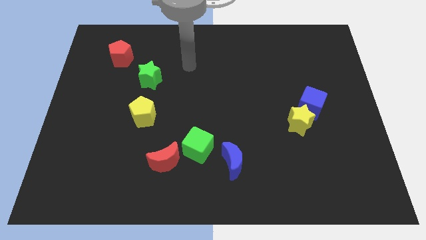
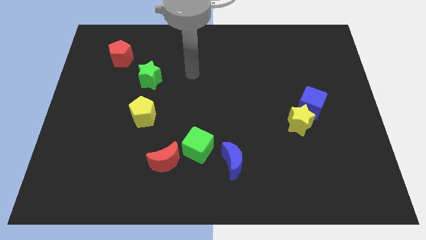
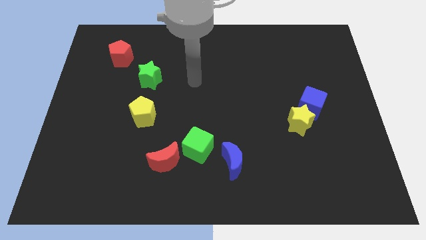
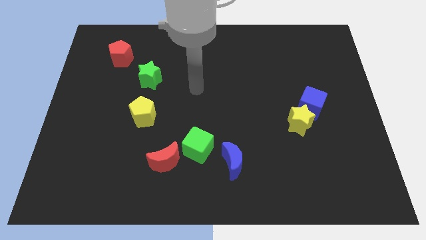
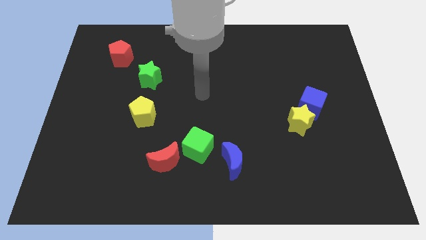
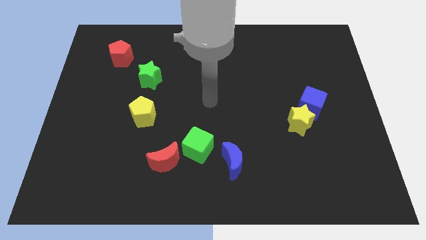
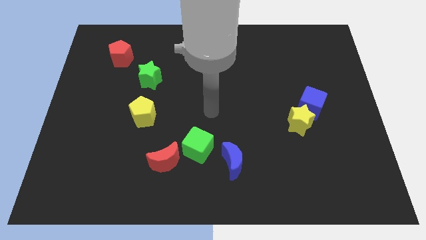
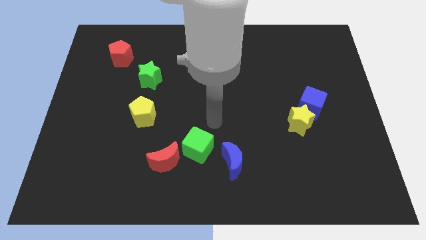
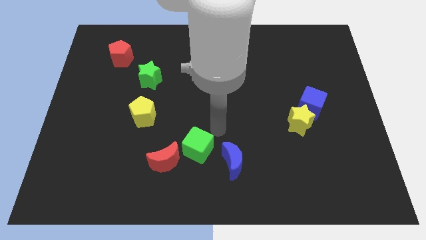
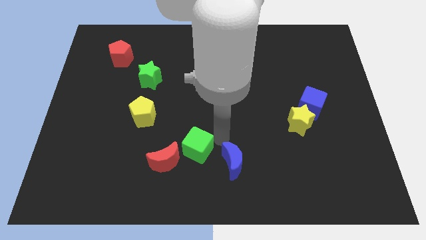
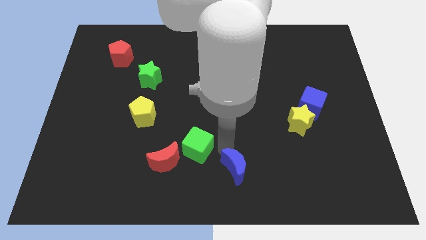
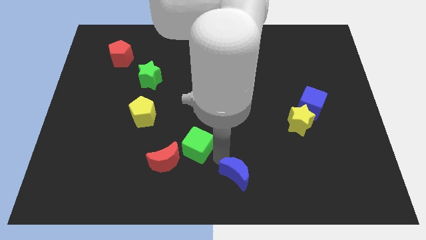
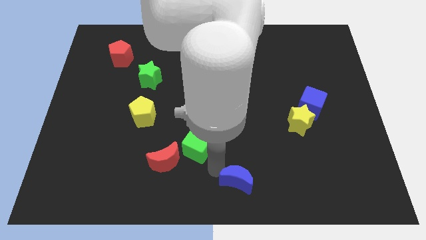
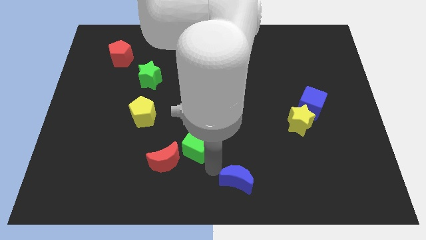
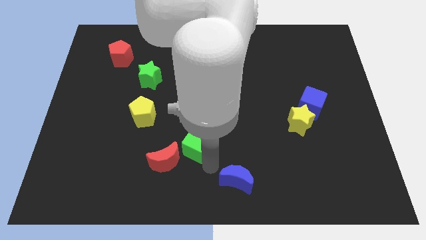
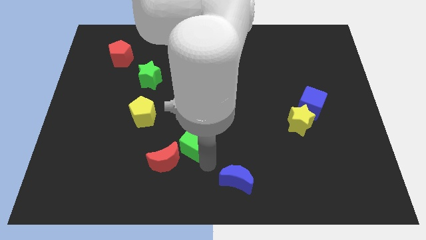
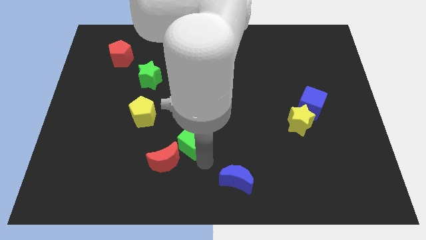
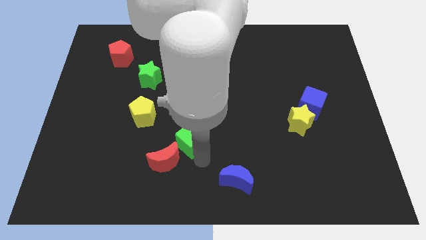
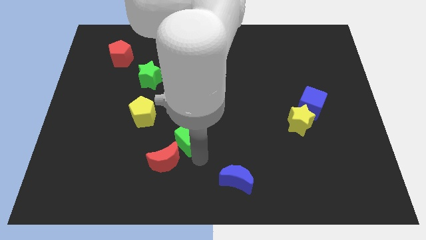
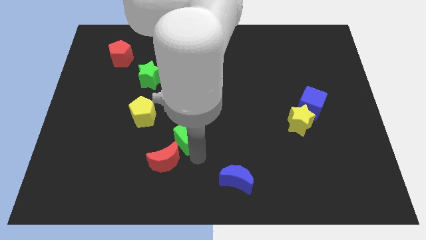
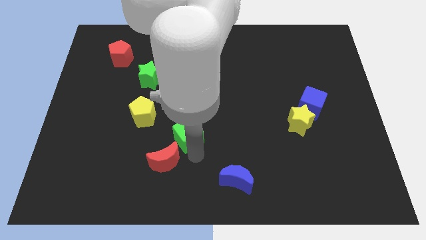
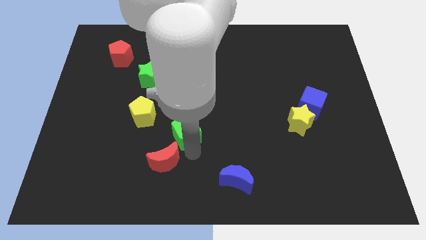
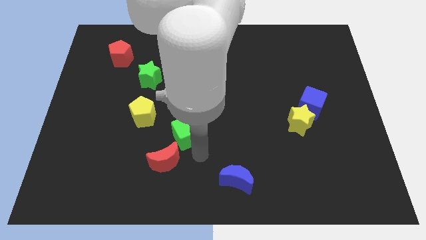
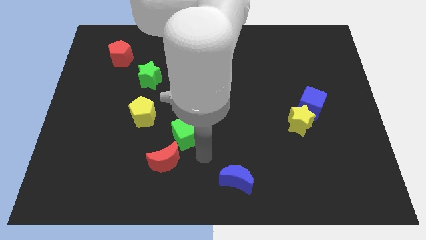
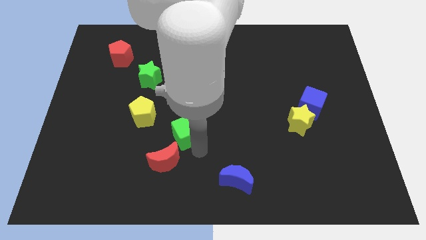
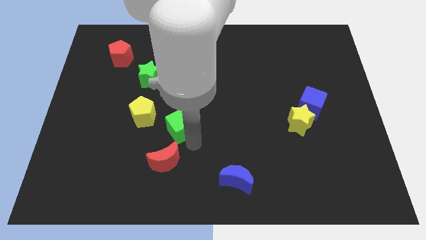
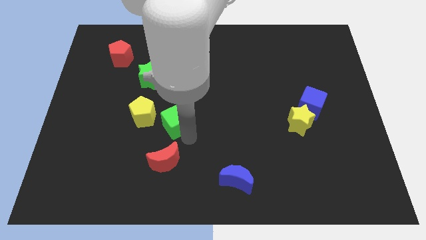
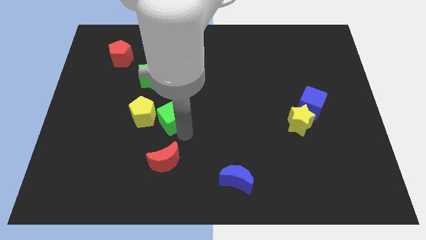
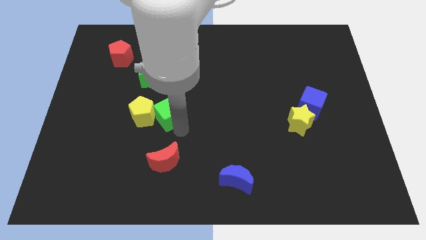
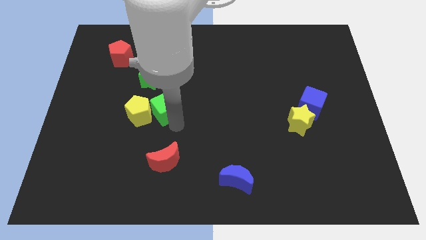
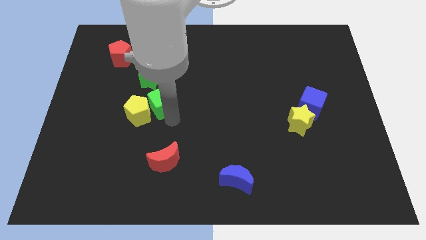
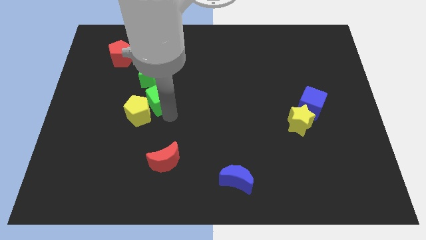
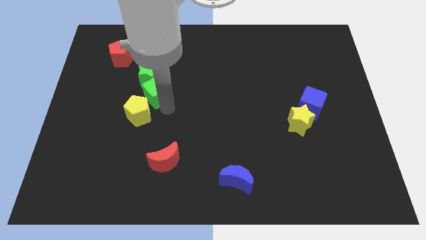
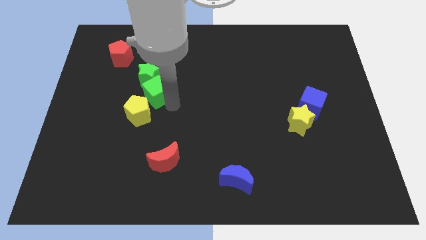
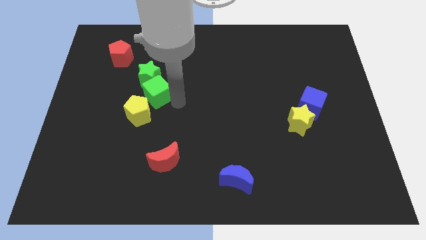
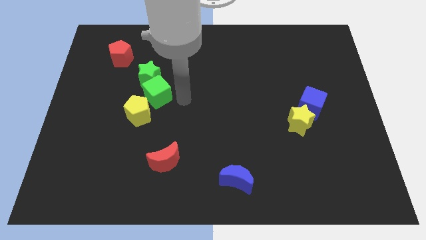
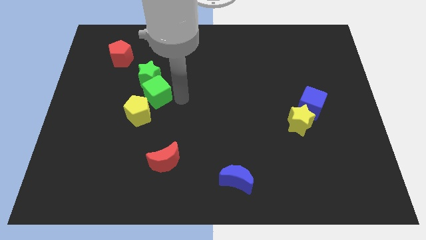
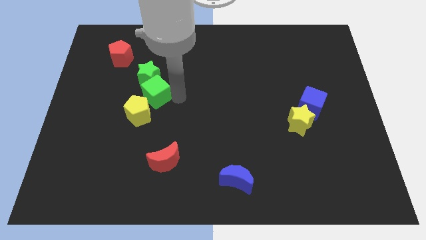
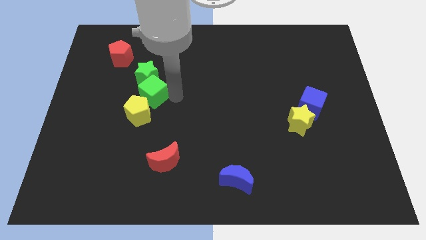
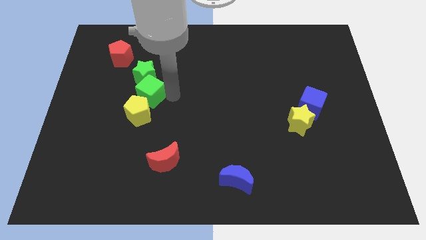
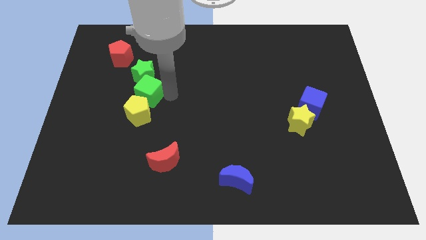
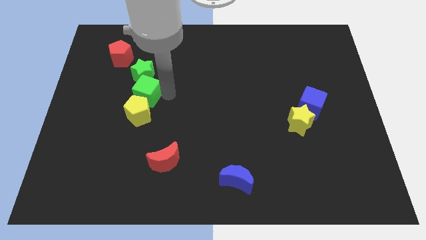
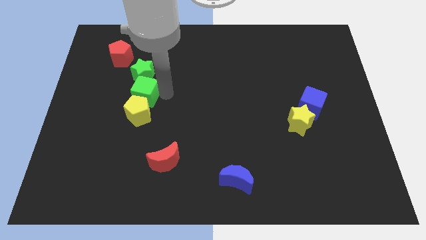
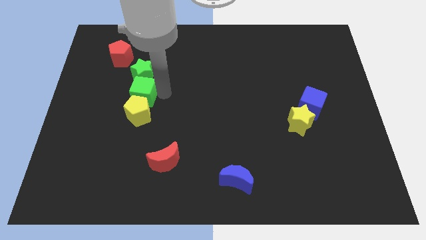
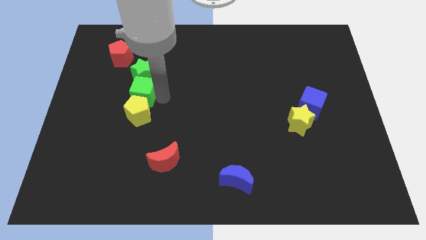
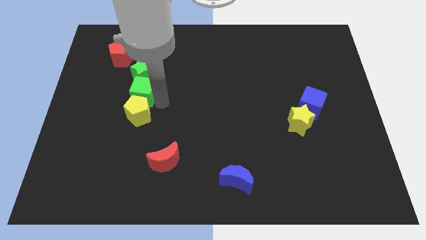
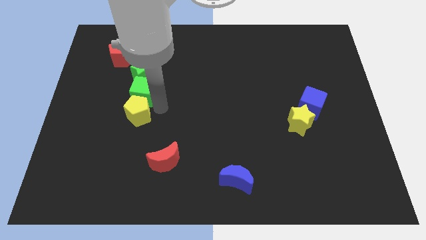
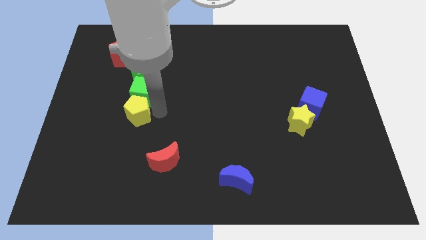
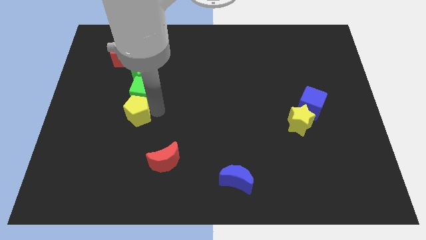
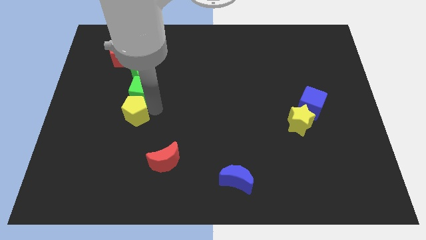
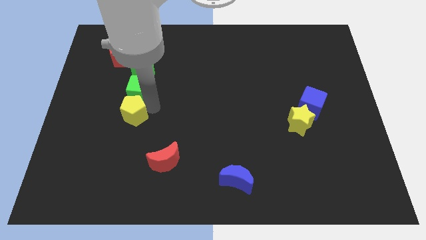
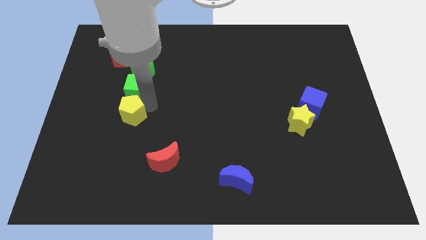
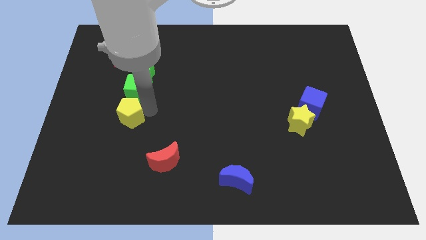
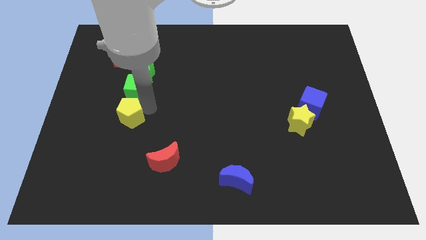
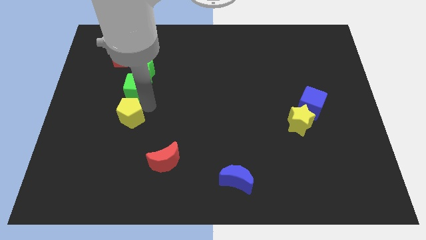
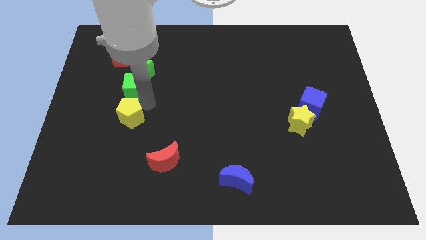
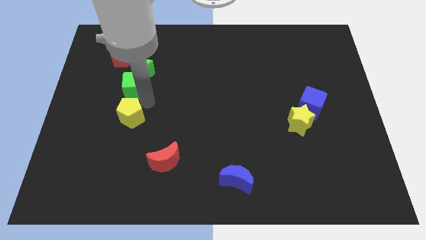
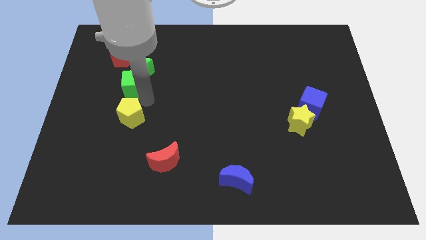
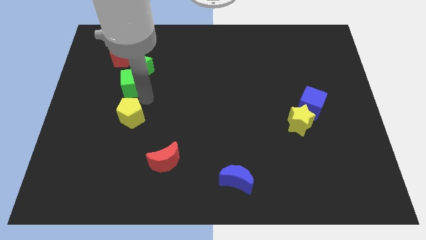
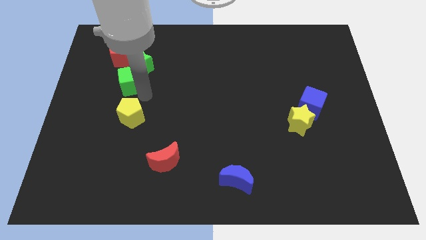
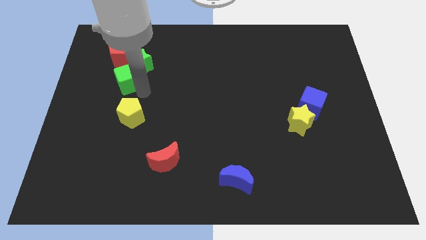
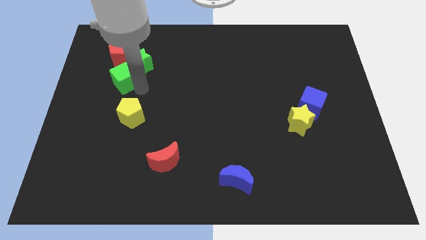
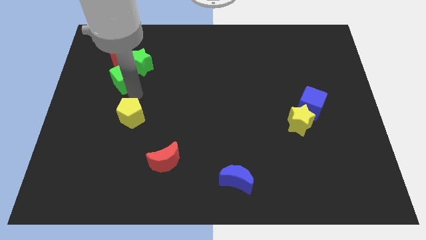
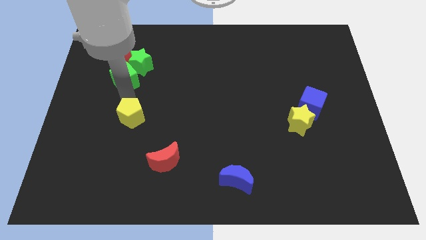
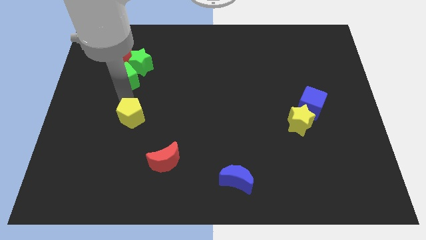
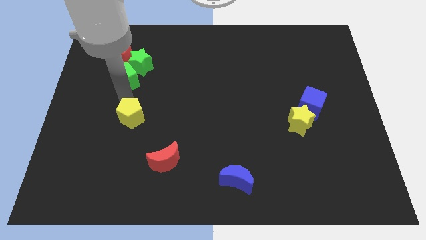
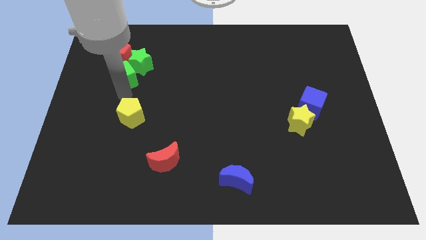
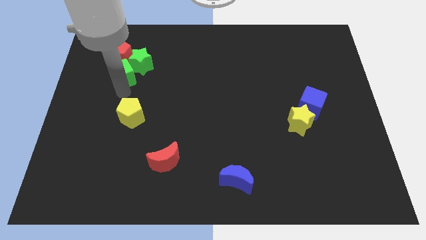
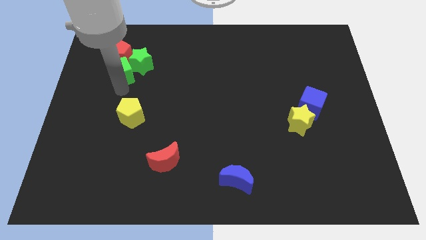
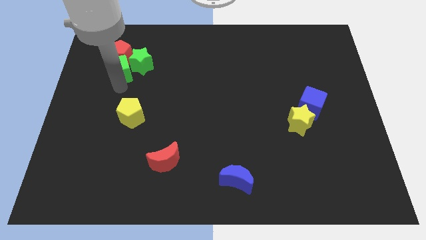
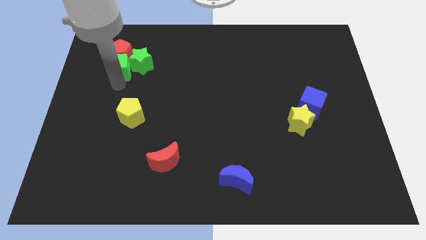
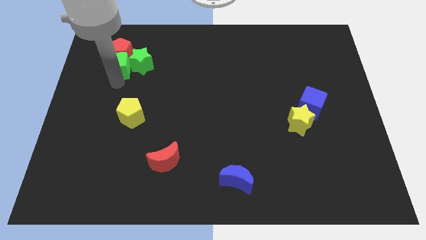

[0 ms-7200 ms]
put the green cube to the top left of the green star
